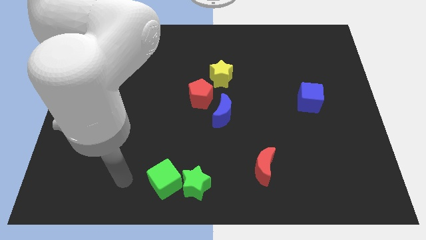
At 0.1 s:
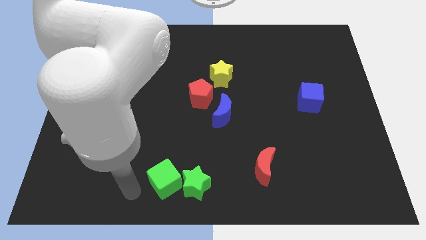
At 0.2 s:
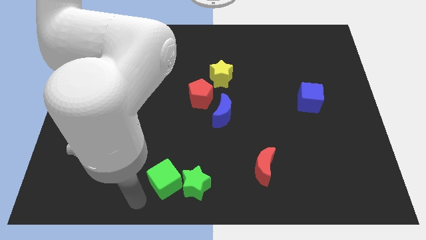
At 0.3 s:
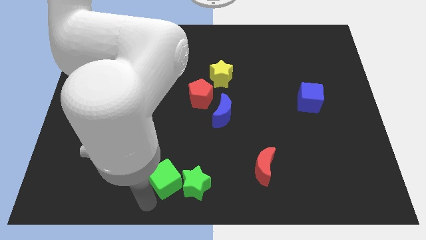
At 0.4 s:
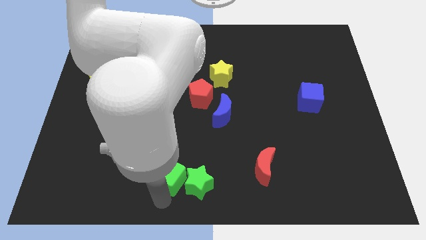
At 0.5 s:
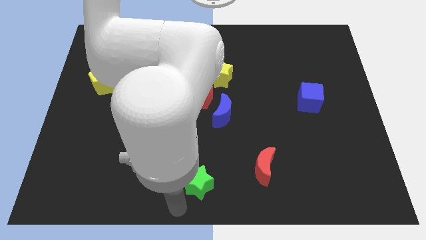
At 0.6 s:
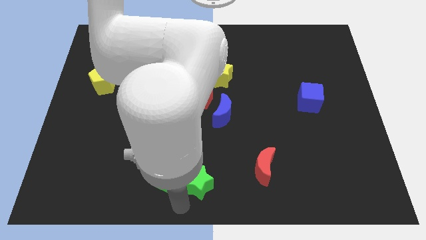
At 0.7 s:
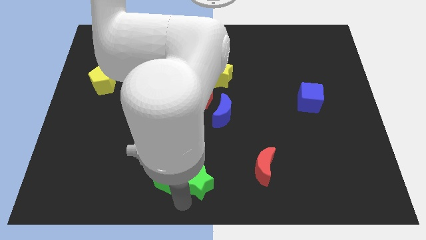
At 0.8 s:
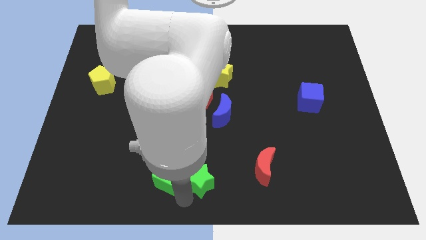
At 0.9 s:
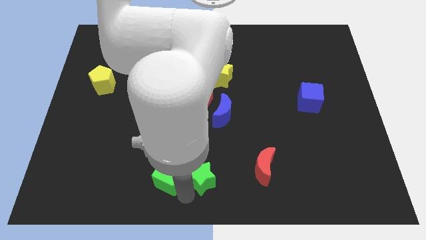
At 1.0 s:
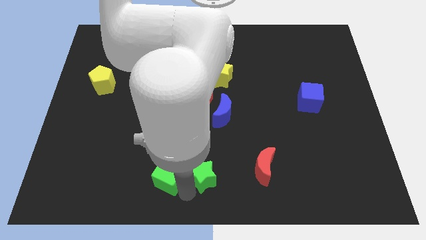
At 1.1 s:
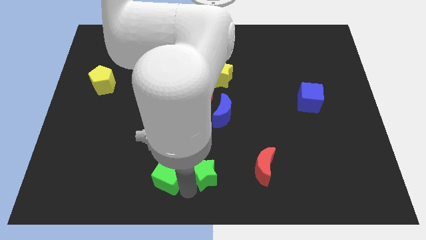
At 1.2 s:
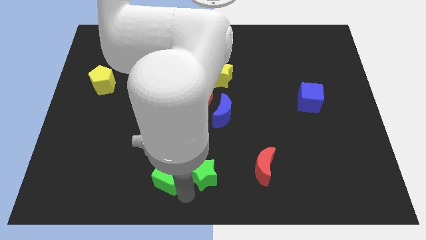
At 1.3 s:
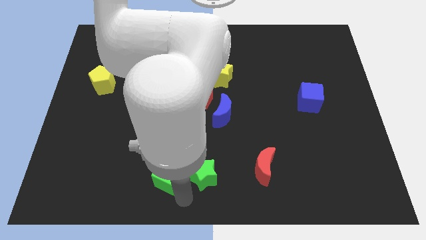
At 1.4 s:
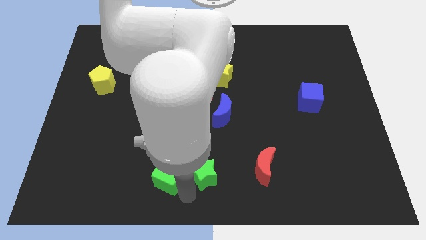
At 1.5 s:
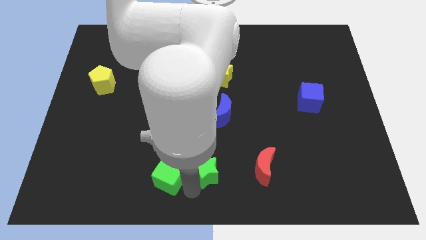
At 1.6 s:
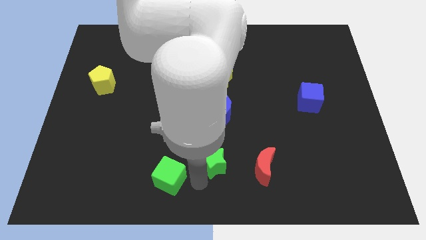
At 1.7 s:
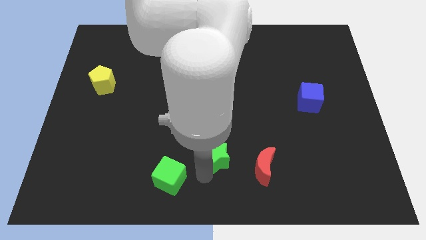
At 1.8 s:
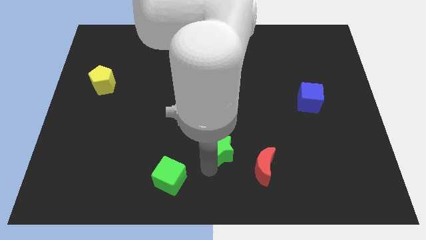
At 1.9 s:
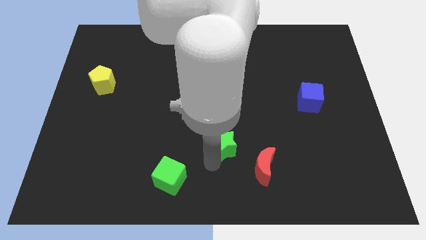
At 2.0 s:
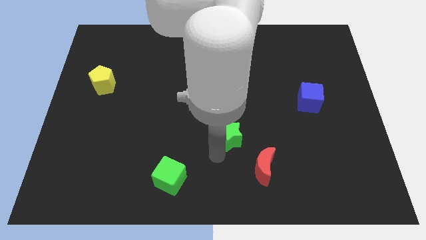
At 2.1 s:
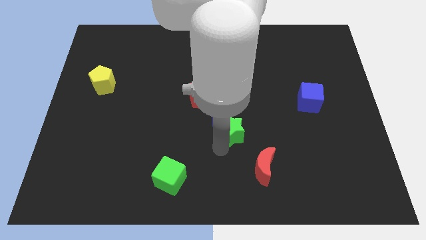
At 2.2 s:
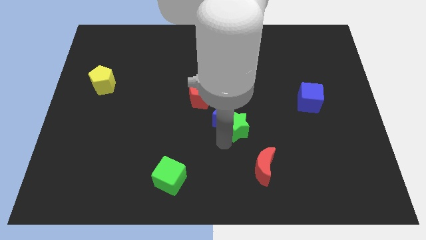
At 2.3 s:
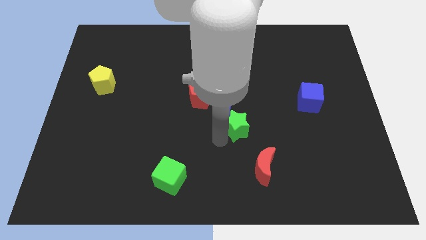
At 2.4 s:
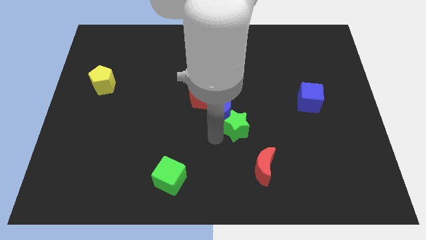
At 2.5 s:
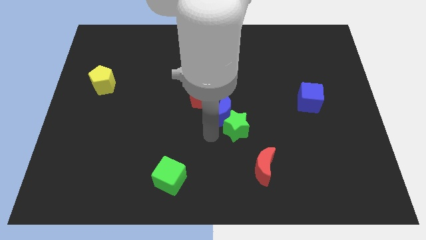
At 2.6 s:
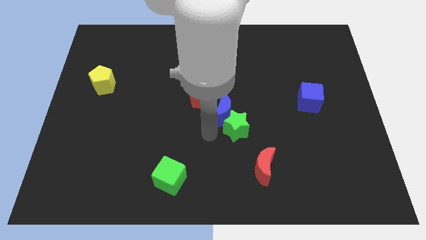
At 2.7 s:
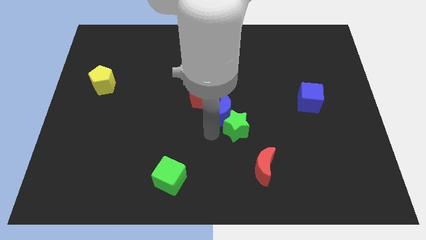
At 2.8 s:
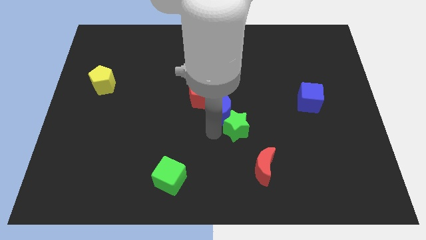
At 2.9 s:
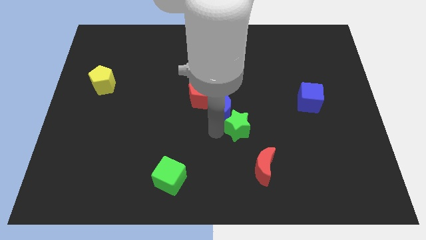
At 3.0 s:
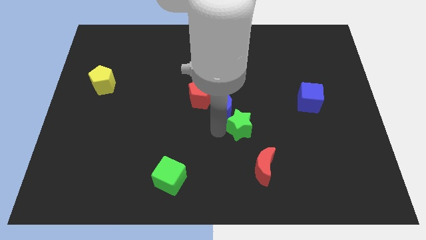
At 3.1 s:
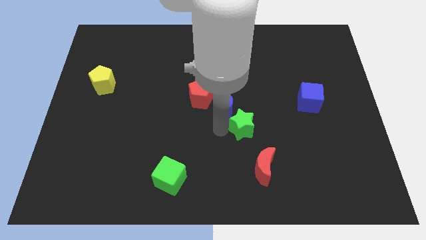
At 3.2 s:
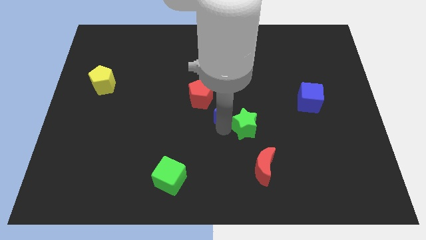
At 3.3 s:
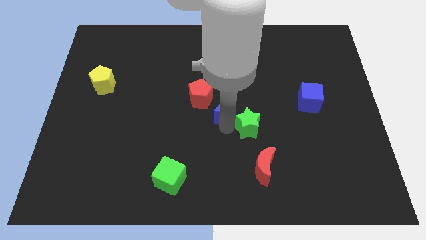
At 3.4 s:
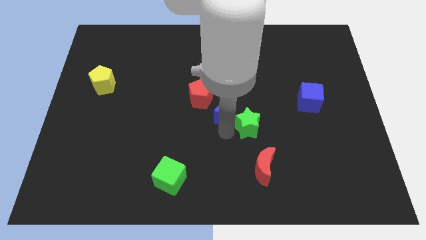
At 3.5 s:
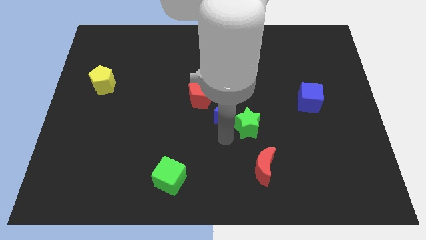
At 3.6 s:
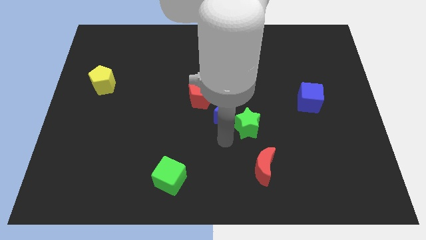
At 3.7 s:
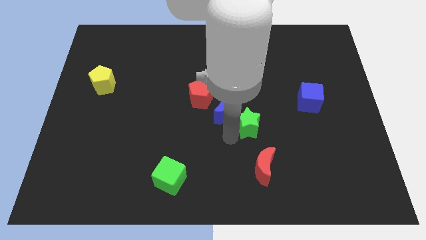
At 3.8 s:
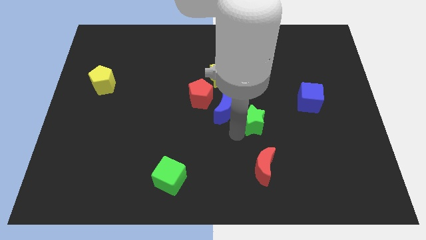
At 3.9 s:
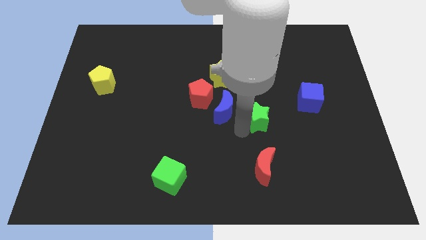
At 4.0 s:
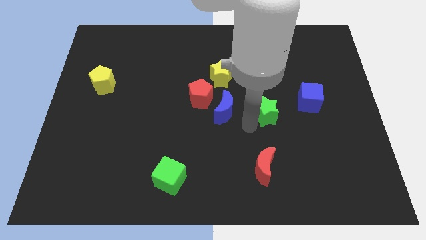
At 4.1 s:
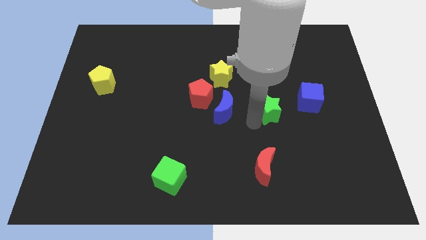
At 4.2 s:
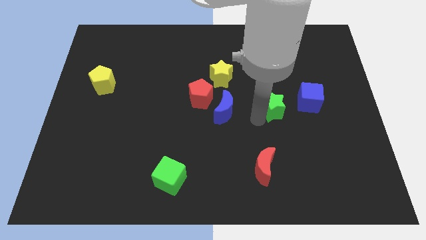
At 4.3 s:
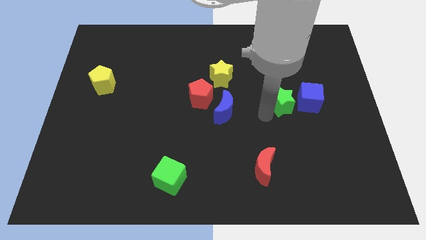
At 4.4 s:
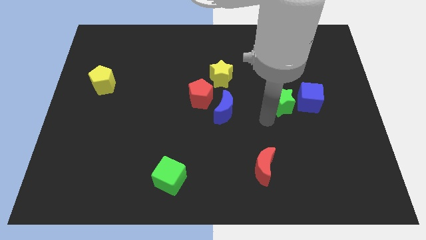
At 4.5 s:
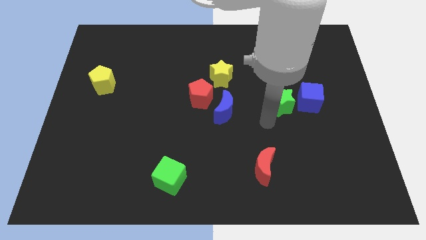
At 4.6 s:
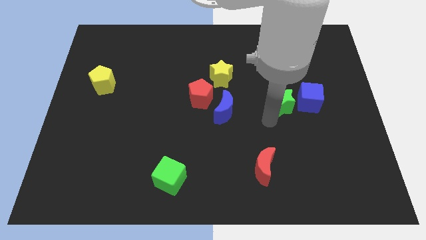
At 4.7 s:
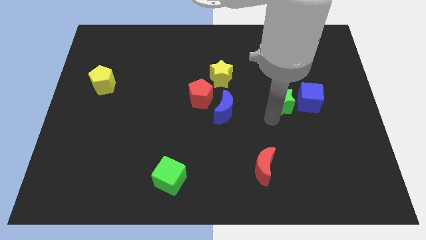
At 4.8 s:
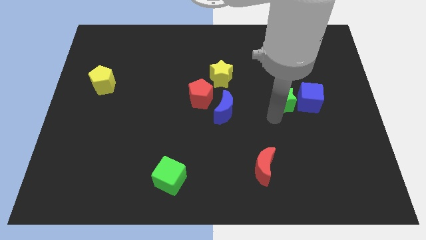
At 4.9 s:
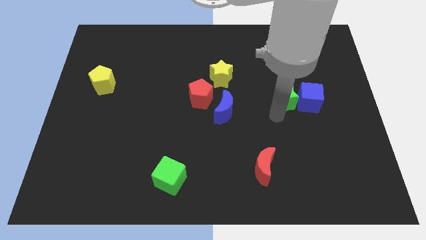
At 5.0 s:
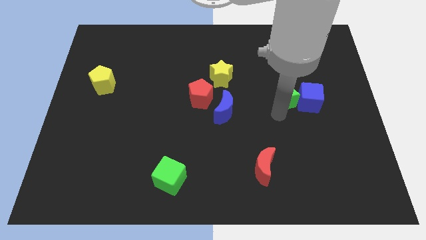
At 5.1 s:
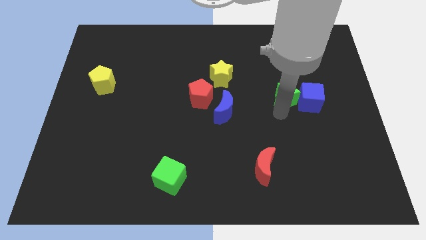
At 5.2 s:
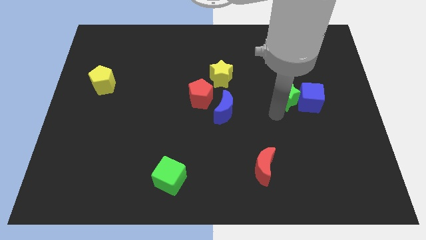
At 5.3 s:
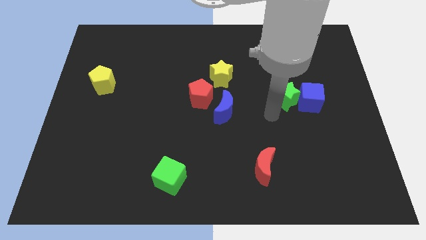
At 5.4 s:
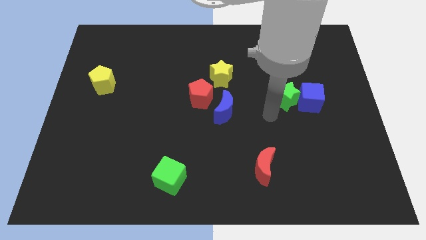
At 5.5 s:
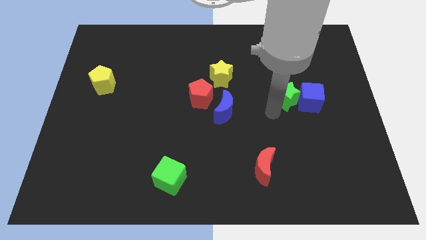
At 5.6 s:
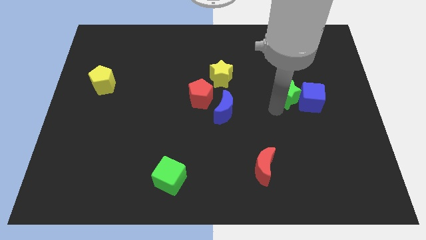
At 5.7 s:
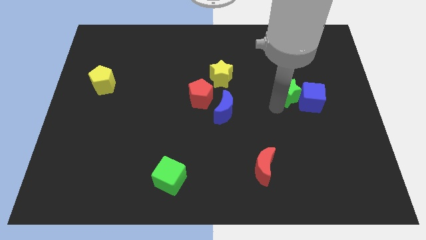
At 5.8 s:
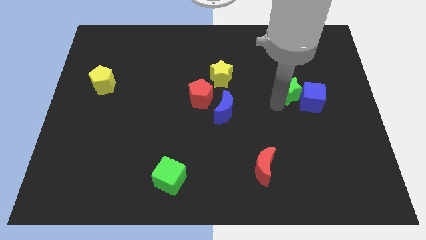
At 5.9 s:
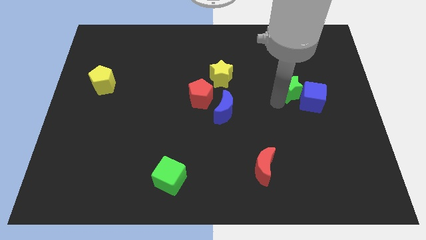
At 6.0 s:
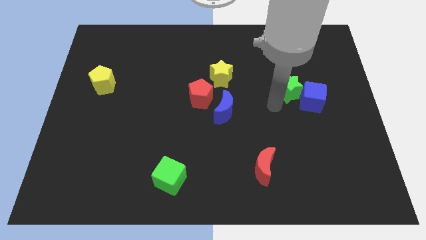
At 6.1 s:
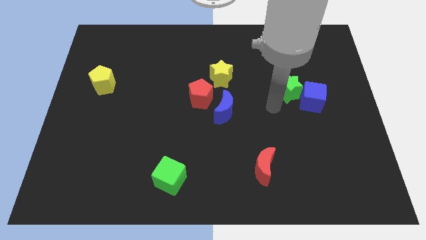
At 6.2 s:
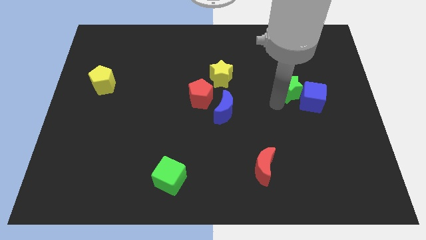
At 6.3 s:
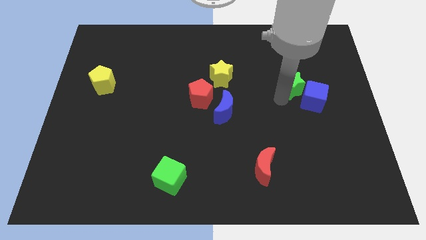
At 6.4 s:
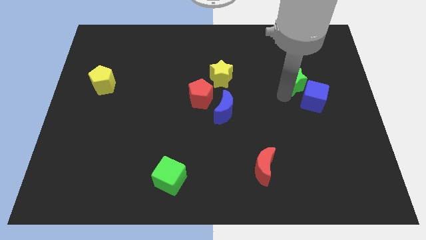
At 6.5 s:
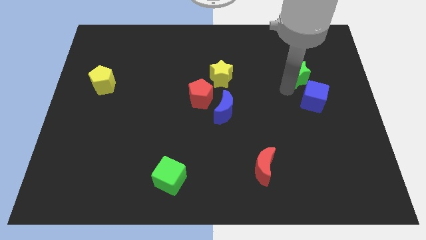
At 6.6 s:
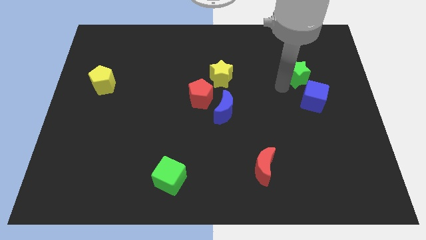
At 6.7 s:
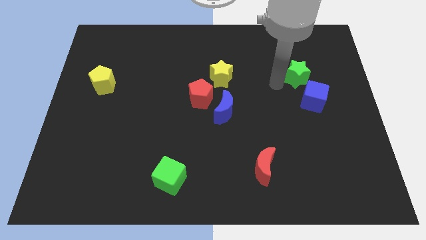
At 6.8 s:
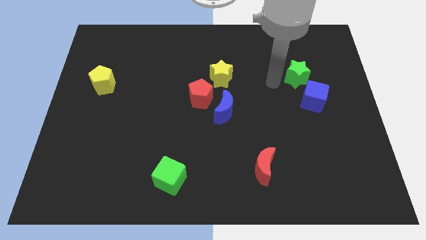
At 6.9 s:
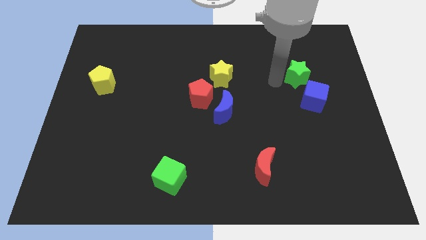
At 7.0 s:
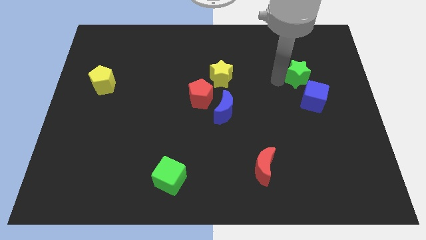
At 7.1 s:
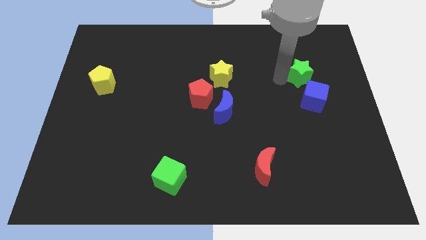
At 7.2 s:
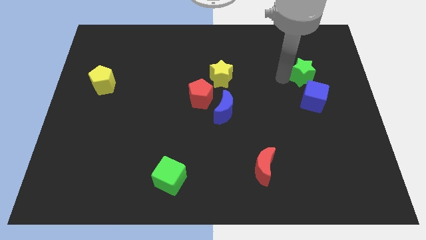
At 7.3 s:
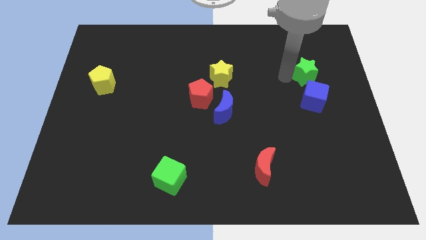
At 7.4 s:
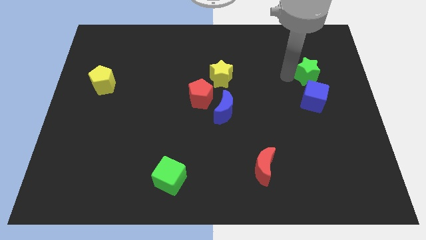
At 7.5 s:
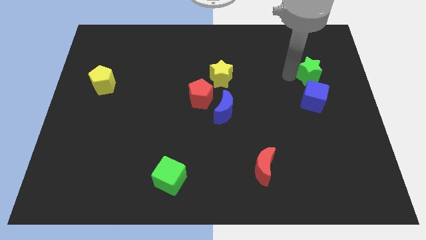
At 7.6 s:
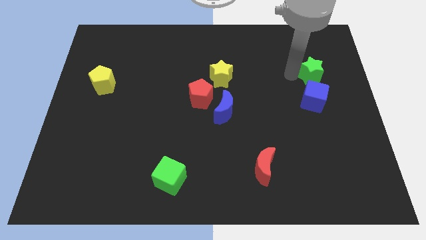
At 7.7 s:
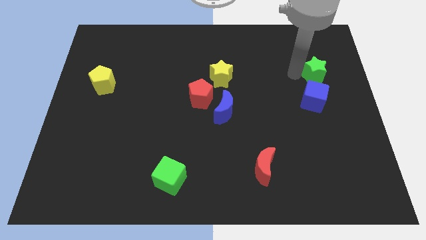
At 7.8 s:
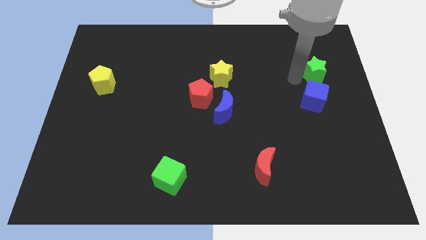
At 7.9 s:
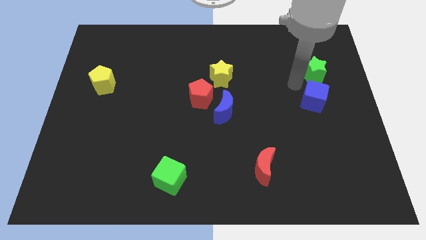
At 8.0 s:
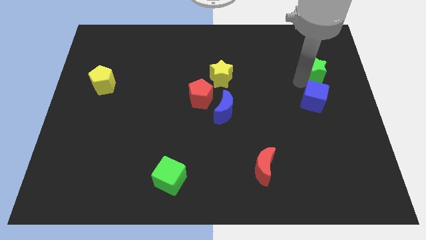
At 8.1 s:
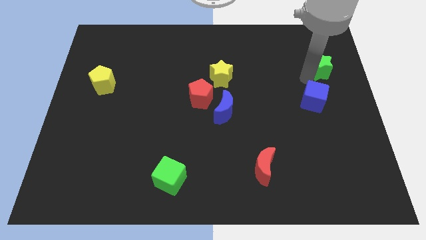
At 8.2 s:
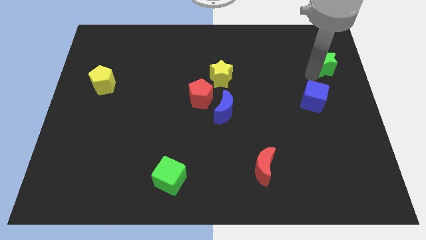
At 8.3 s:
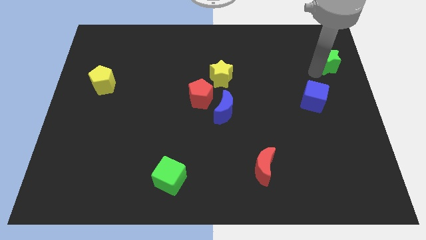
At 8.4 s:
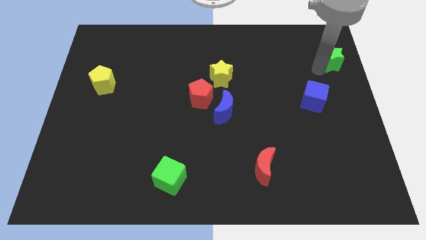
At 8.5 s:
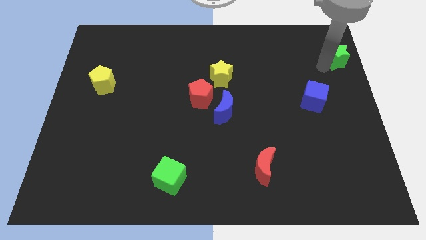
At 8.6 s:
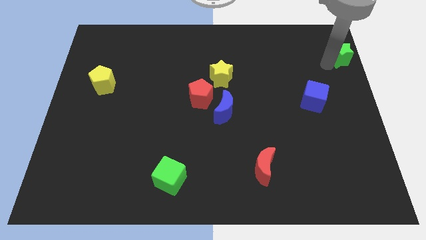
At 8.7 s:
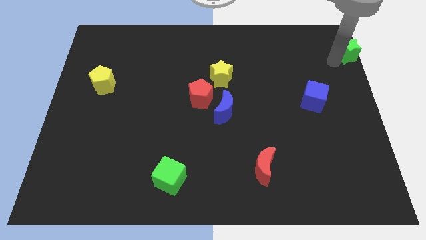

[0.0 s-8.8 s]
put the green star to the upper right corner
